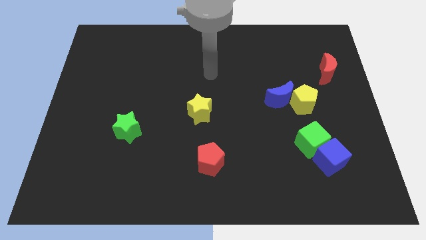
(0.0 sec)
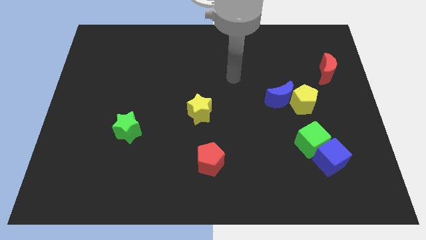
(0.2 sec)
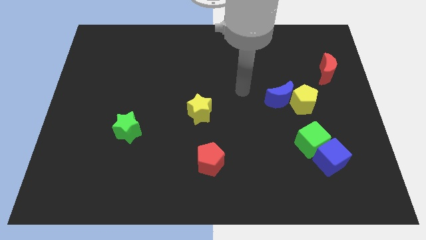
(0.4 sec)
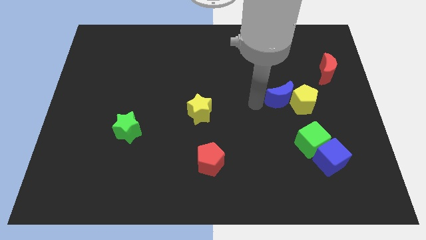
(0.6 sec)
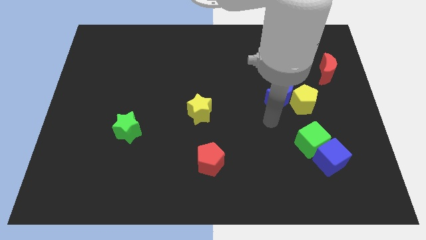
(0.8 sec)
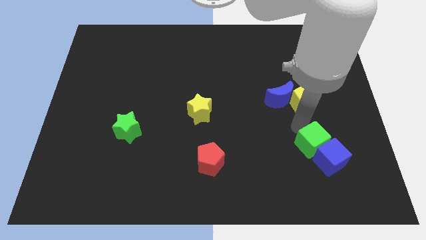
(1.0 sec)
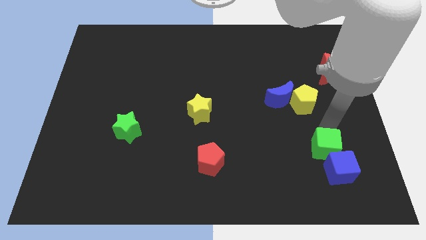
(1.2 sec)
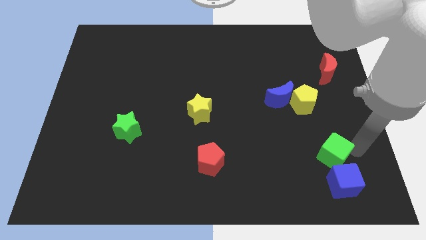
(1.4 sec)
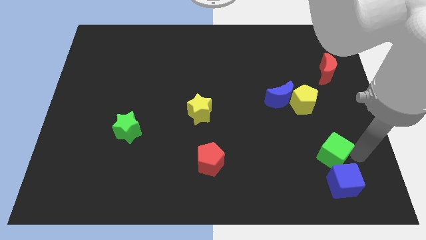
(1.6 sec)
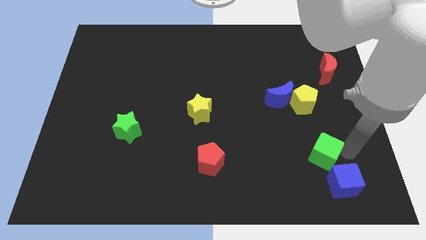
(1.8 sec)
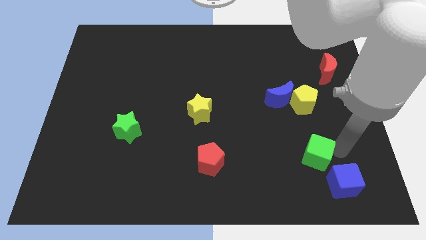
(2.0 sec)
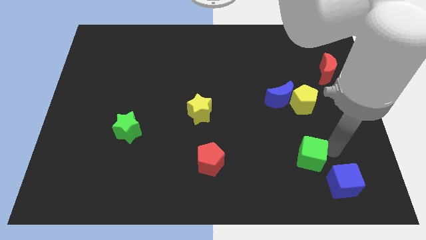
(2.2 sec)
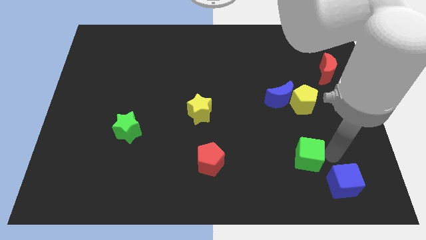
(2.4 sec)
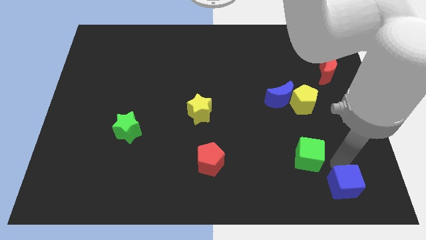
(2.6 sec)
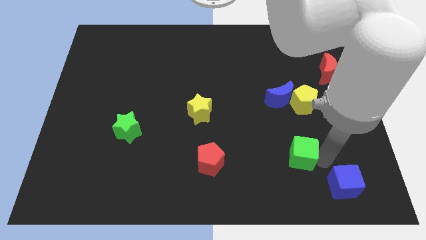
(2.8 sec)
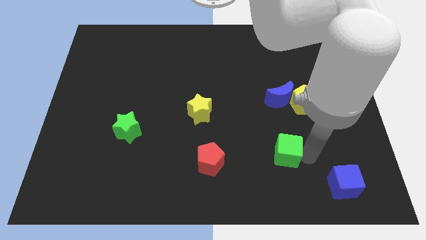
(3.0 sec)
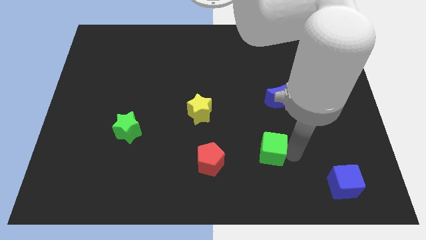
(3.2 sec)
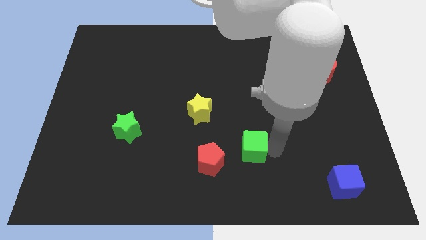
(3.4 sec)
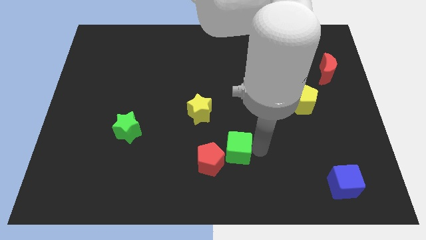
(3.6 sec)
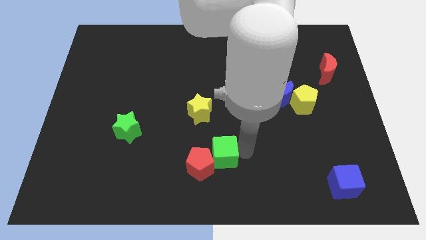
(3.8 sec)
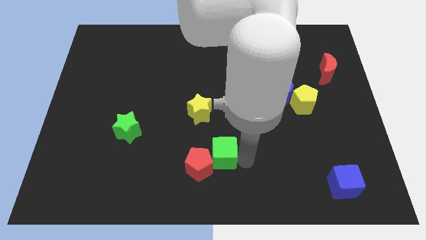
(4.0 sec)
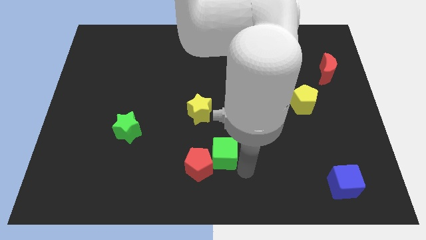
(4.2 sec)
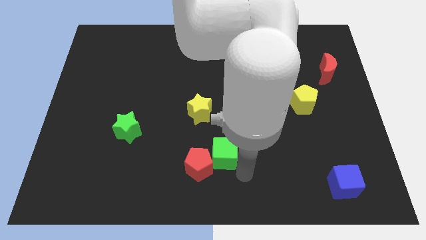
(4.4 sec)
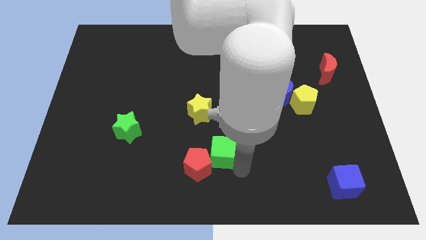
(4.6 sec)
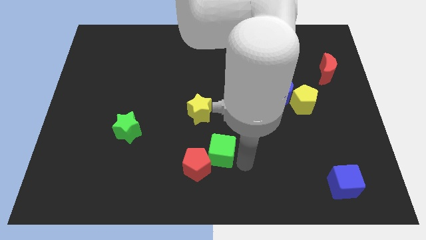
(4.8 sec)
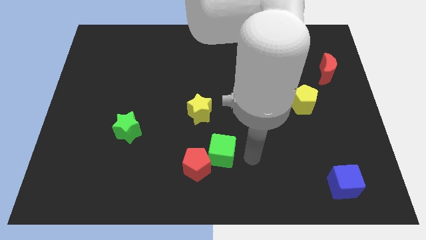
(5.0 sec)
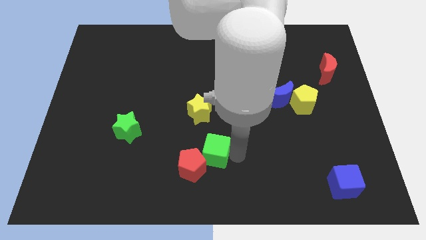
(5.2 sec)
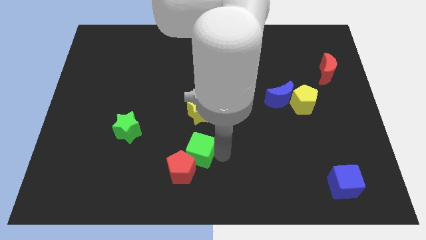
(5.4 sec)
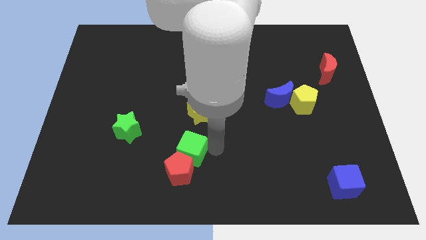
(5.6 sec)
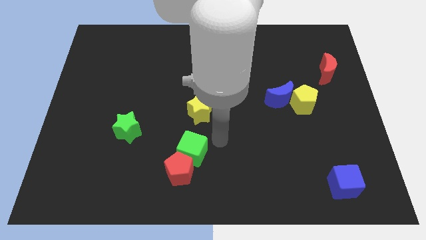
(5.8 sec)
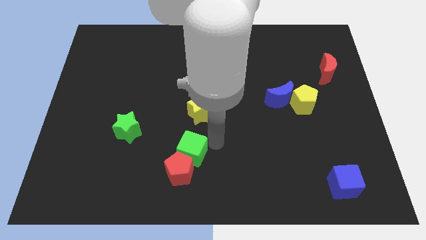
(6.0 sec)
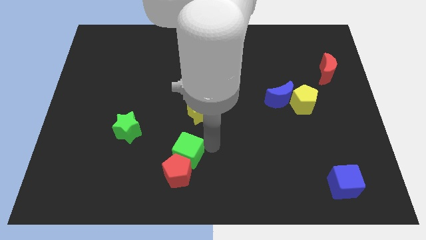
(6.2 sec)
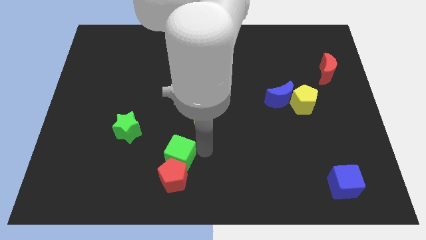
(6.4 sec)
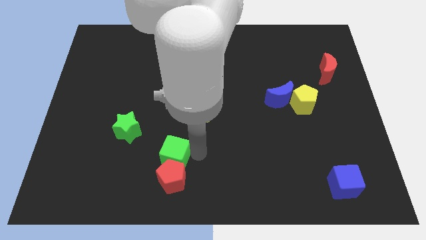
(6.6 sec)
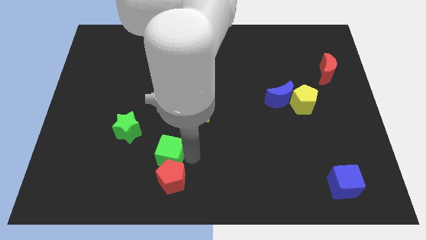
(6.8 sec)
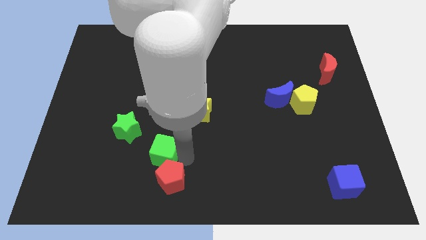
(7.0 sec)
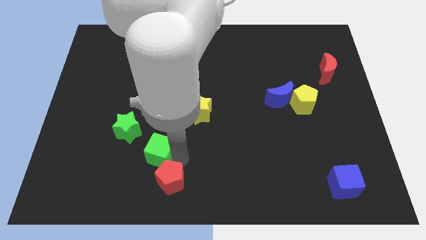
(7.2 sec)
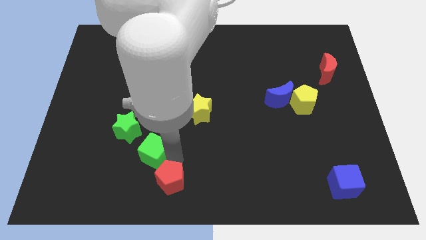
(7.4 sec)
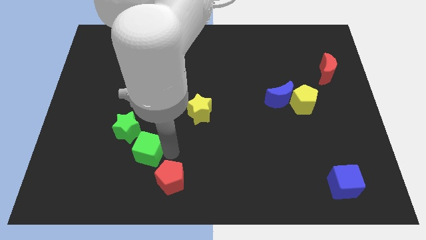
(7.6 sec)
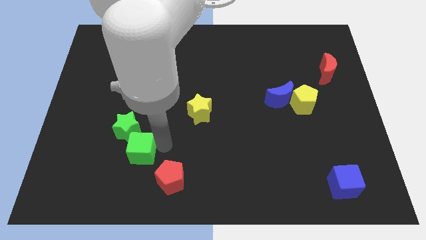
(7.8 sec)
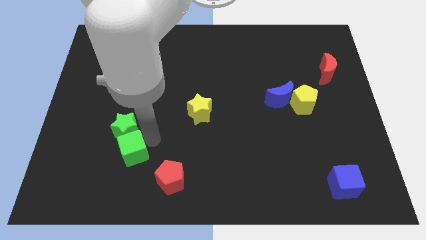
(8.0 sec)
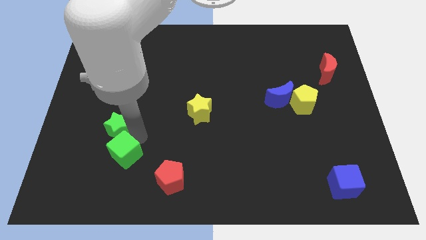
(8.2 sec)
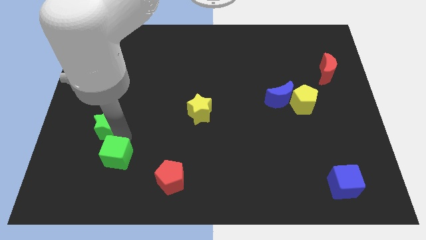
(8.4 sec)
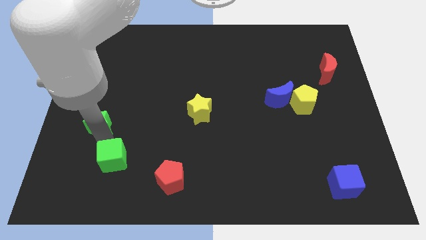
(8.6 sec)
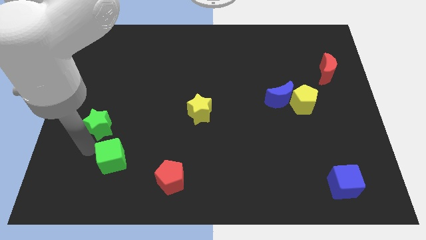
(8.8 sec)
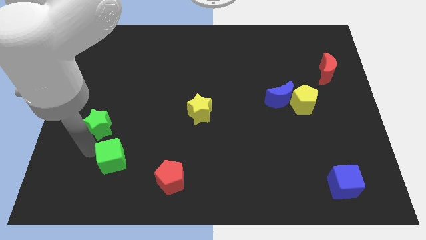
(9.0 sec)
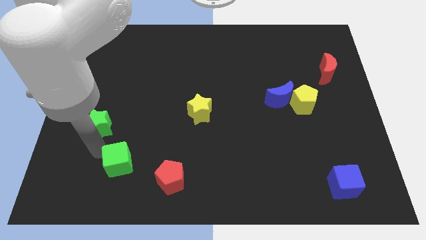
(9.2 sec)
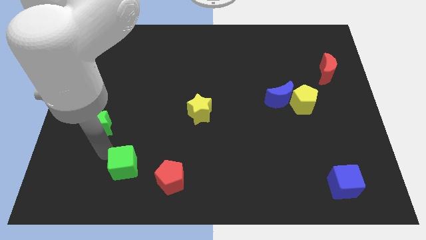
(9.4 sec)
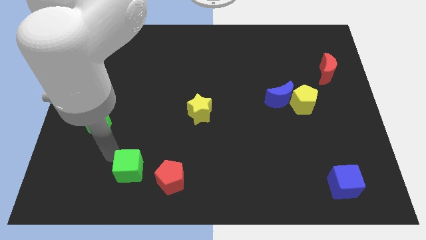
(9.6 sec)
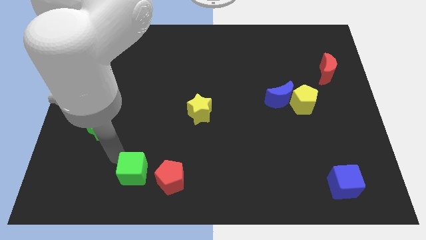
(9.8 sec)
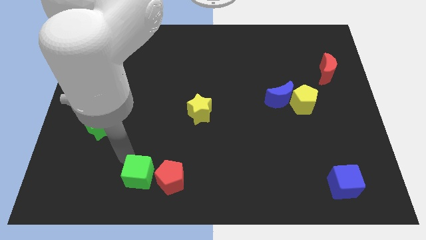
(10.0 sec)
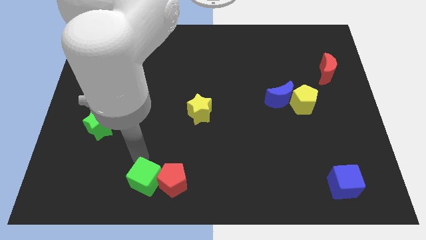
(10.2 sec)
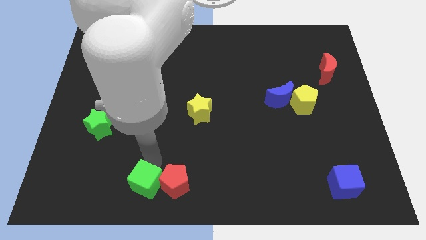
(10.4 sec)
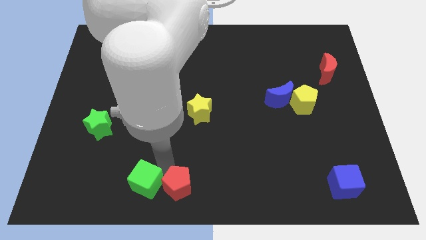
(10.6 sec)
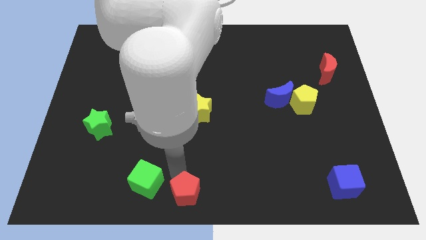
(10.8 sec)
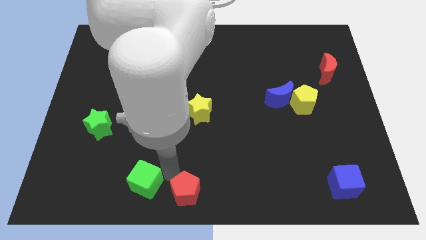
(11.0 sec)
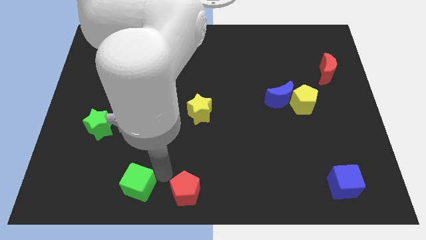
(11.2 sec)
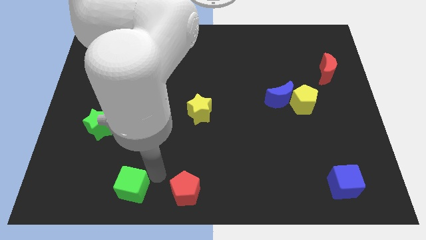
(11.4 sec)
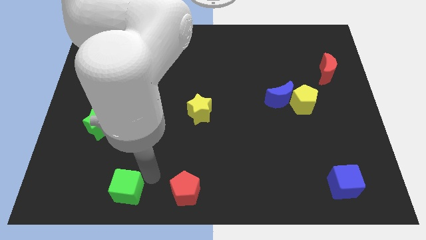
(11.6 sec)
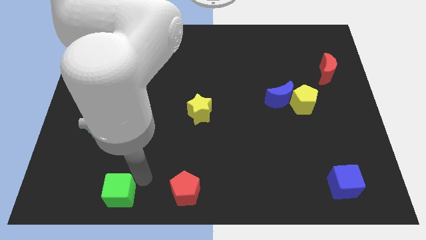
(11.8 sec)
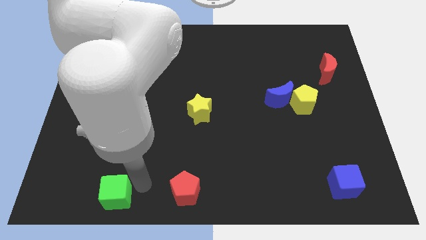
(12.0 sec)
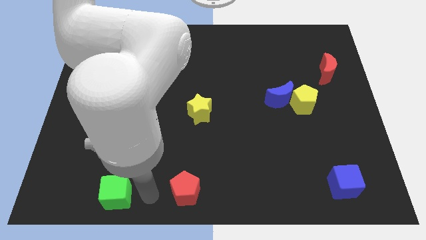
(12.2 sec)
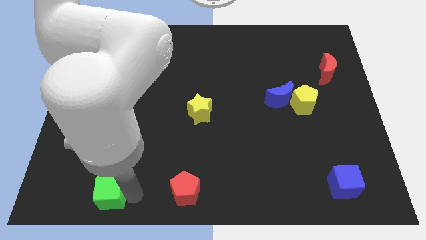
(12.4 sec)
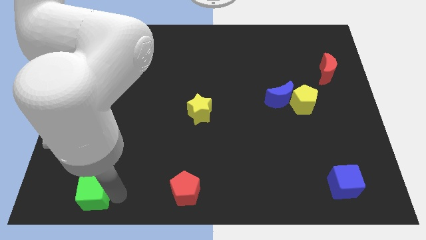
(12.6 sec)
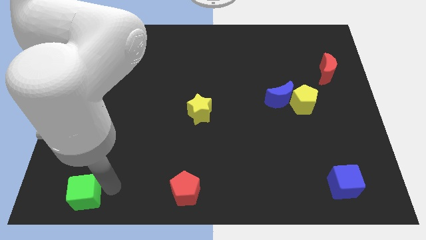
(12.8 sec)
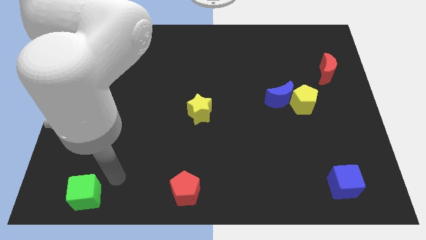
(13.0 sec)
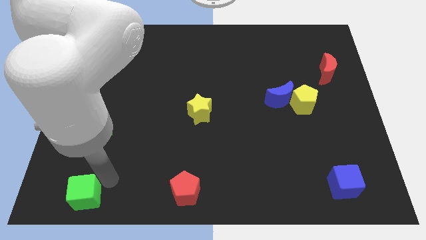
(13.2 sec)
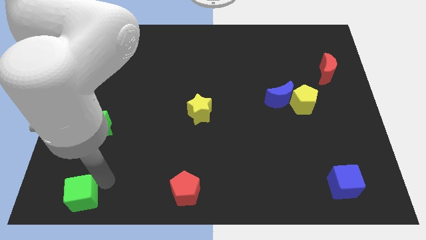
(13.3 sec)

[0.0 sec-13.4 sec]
push the green cube to the lower left corner
